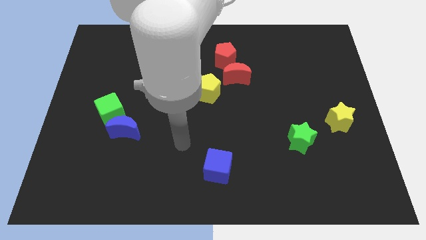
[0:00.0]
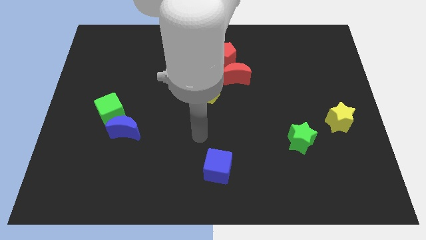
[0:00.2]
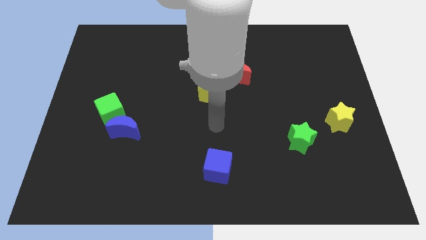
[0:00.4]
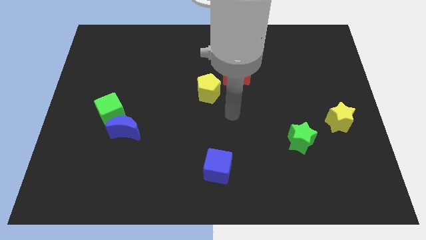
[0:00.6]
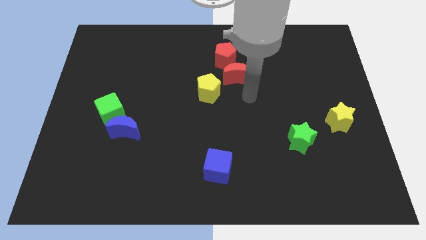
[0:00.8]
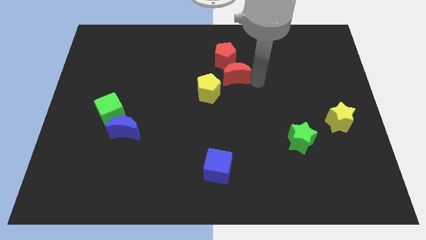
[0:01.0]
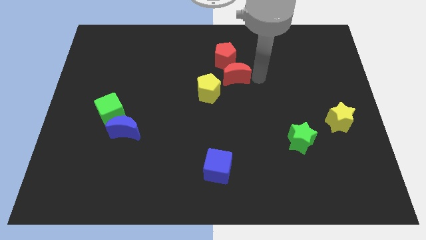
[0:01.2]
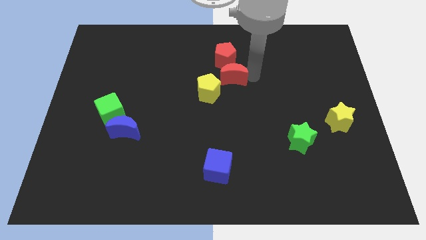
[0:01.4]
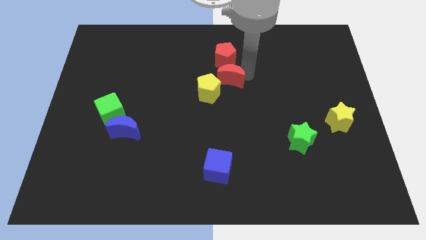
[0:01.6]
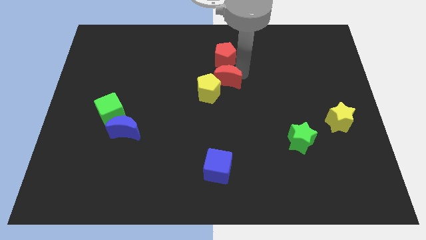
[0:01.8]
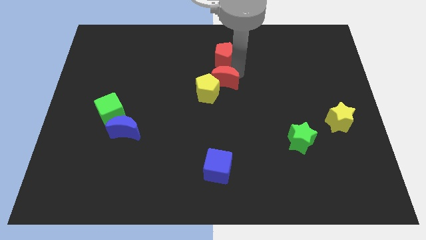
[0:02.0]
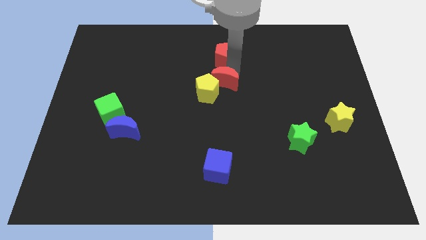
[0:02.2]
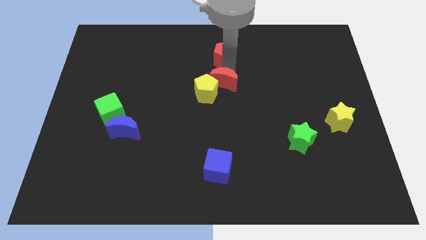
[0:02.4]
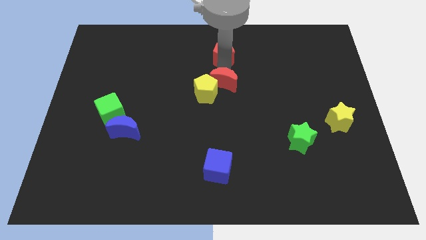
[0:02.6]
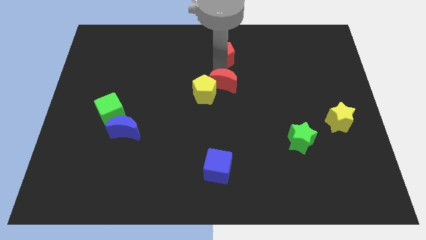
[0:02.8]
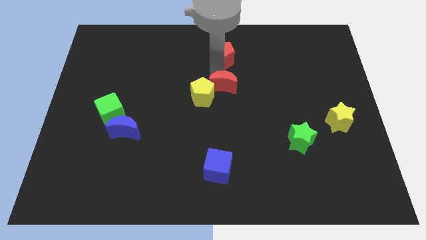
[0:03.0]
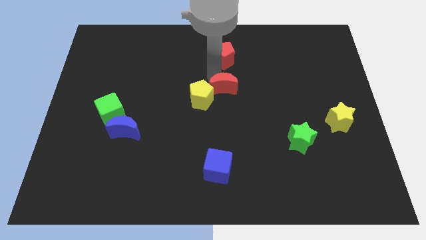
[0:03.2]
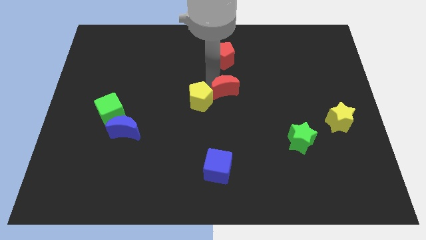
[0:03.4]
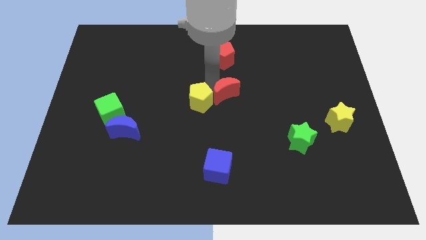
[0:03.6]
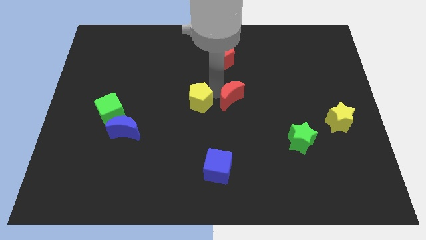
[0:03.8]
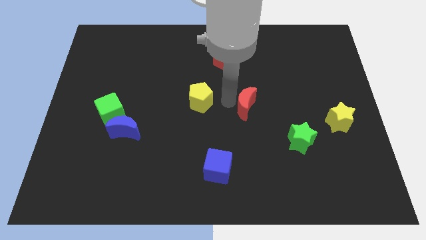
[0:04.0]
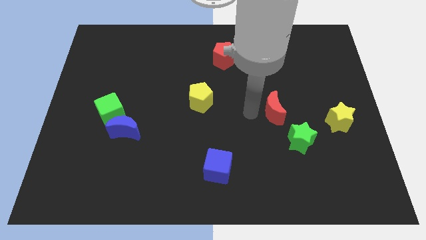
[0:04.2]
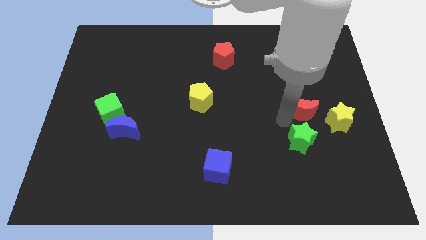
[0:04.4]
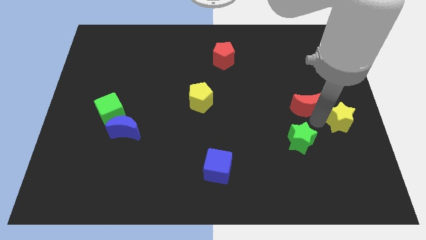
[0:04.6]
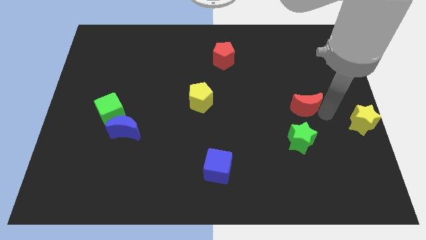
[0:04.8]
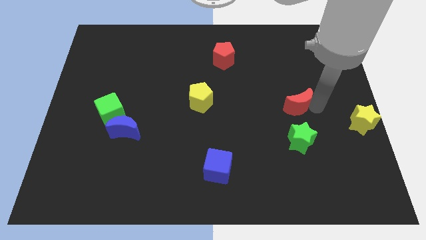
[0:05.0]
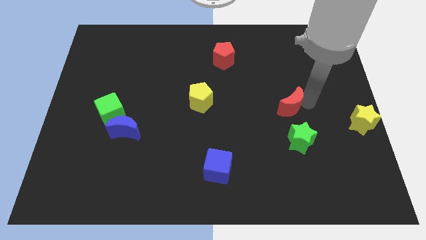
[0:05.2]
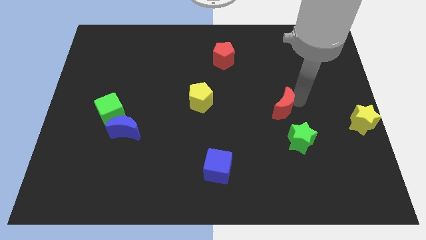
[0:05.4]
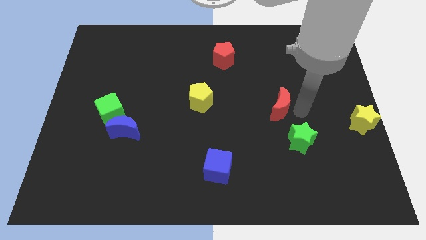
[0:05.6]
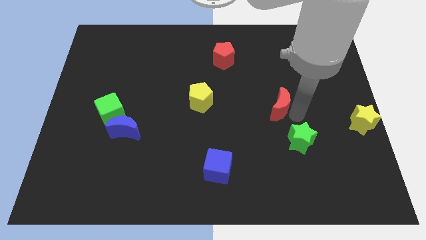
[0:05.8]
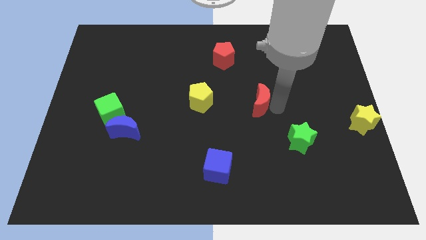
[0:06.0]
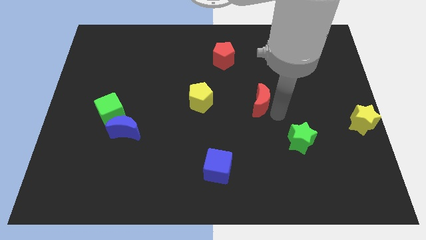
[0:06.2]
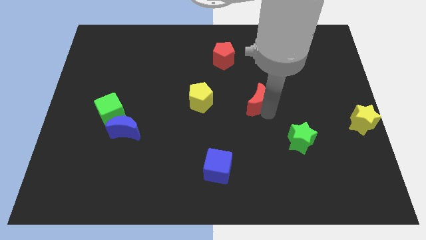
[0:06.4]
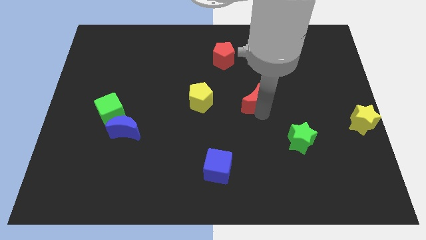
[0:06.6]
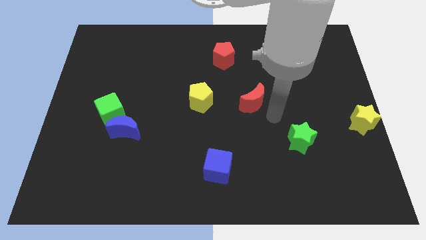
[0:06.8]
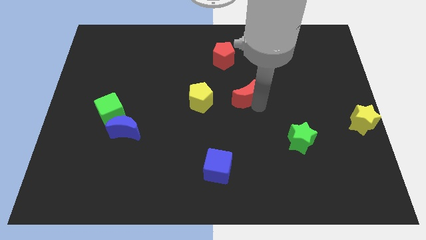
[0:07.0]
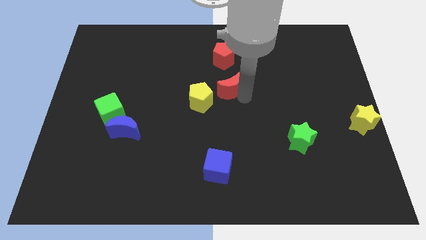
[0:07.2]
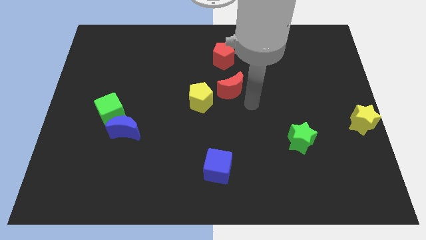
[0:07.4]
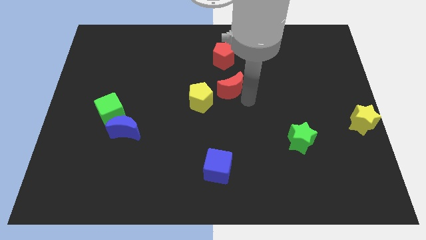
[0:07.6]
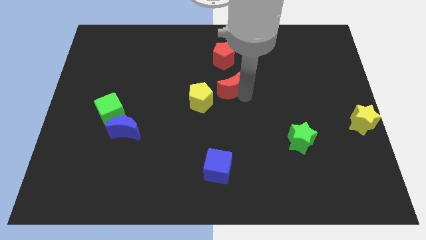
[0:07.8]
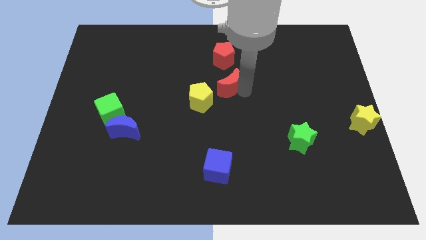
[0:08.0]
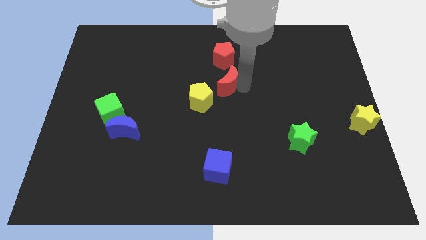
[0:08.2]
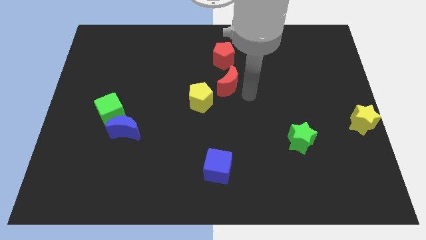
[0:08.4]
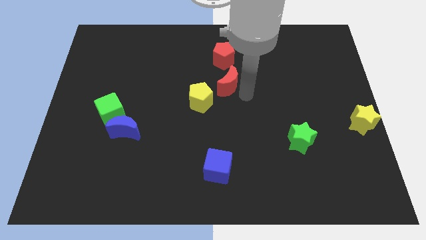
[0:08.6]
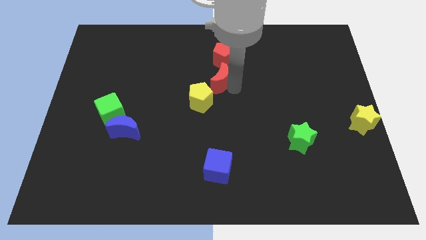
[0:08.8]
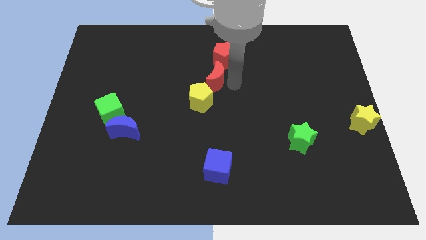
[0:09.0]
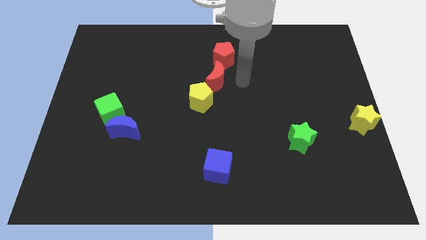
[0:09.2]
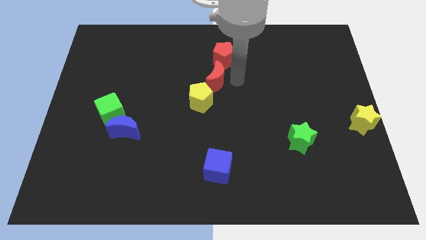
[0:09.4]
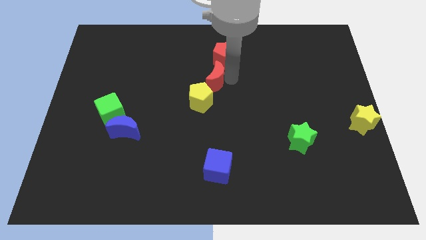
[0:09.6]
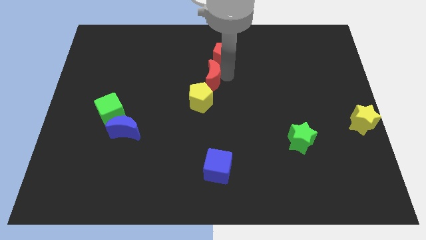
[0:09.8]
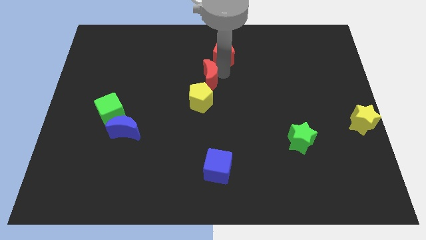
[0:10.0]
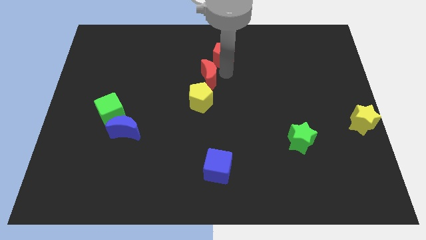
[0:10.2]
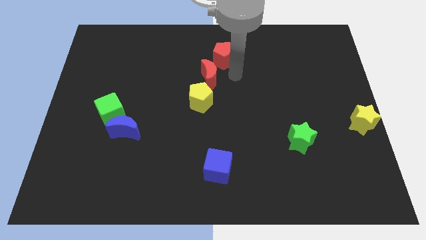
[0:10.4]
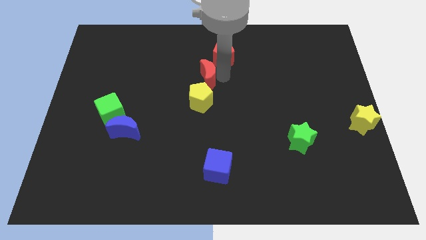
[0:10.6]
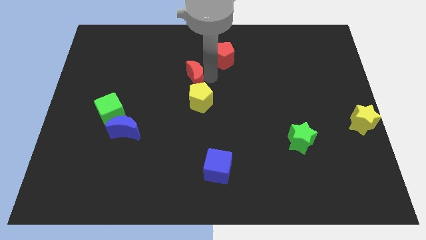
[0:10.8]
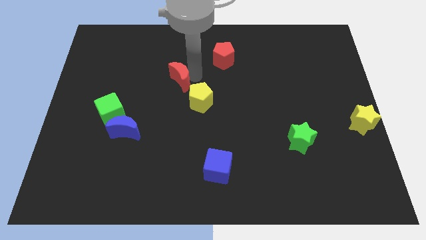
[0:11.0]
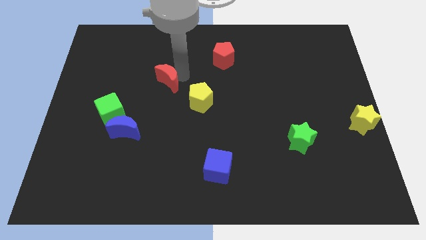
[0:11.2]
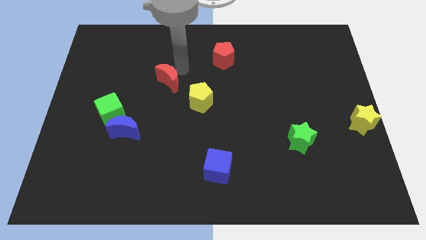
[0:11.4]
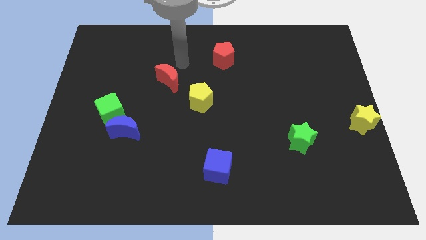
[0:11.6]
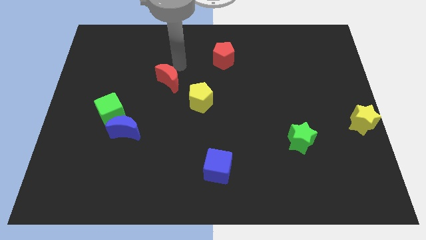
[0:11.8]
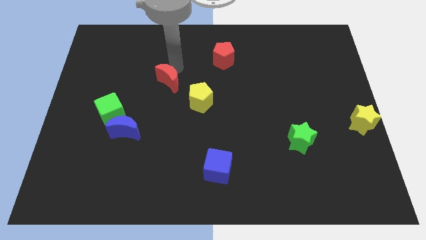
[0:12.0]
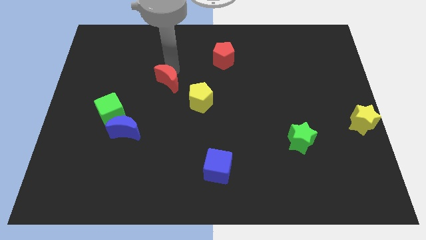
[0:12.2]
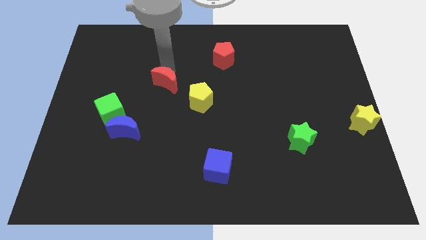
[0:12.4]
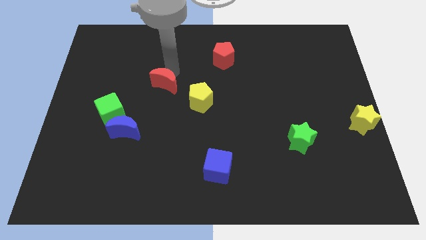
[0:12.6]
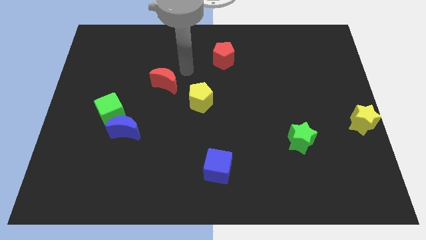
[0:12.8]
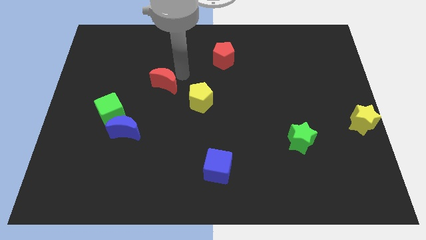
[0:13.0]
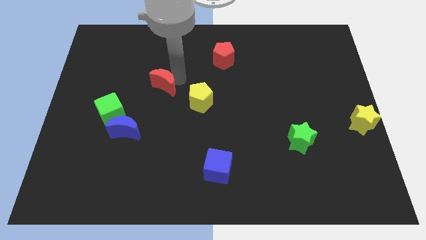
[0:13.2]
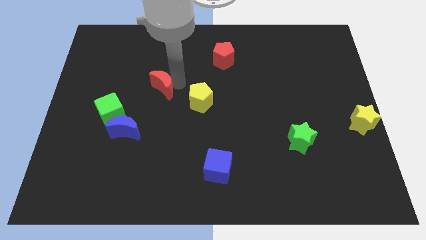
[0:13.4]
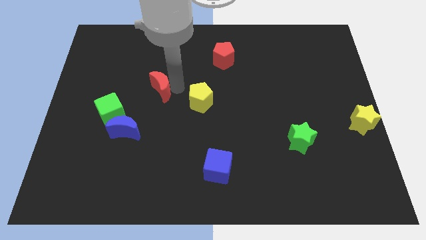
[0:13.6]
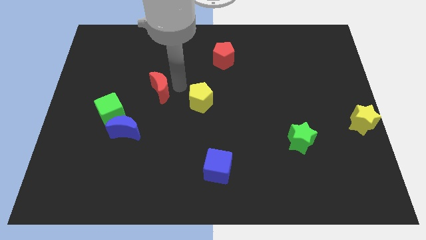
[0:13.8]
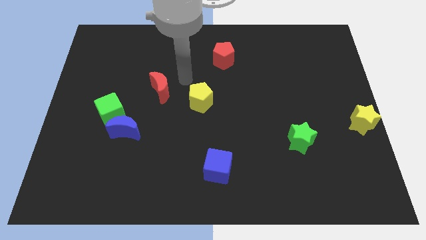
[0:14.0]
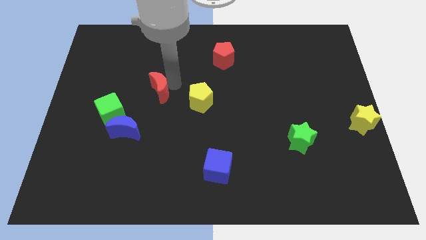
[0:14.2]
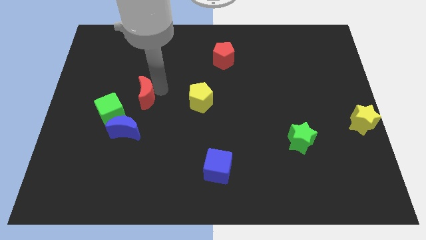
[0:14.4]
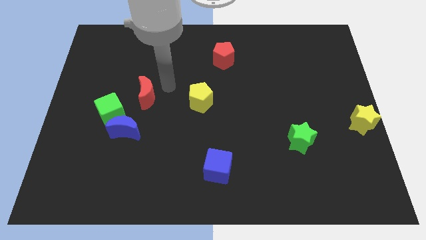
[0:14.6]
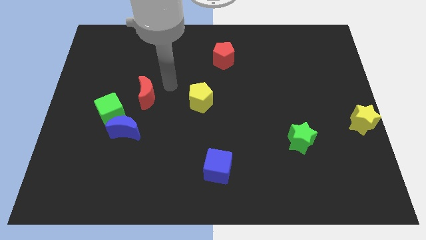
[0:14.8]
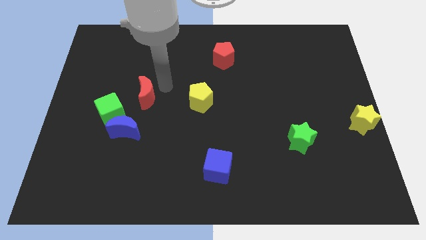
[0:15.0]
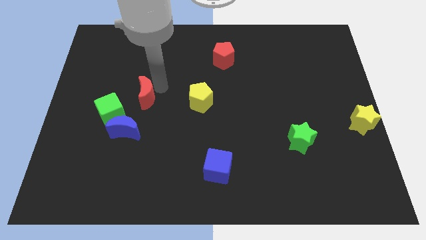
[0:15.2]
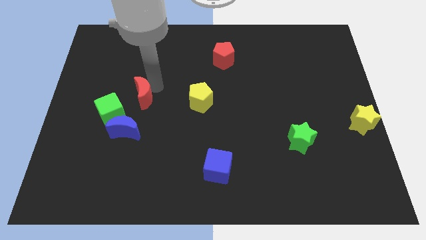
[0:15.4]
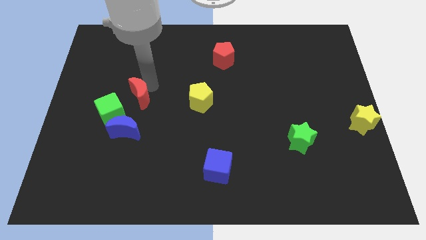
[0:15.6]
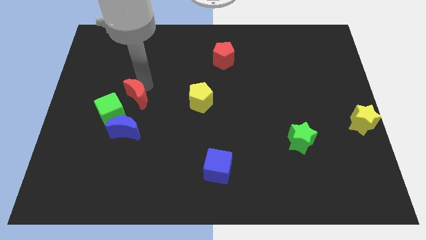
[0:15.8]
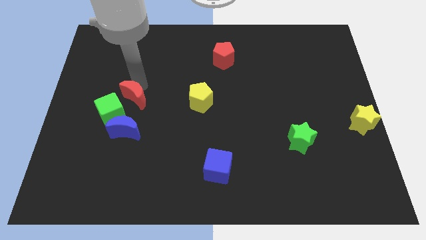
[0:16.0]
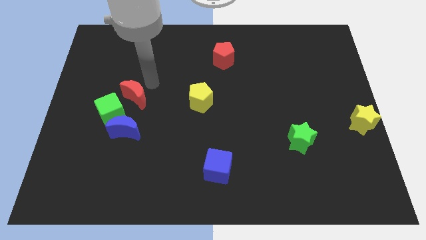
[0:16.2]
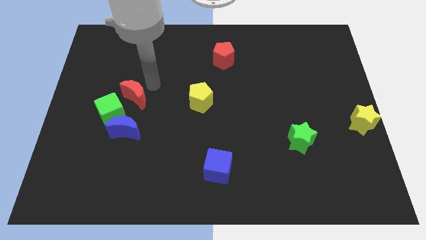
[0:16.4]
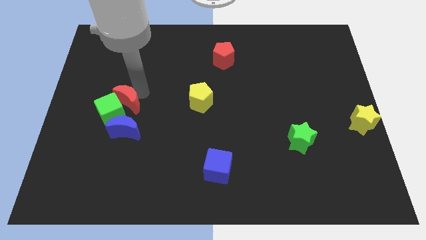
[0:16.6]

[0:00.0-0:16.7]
push the red moon towards the green cube
